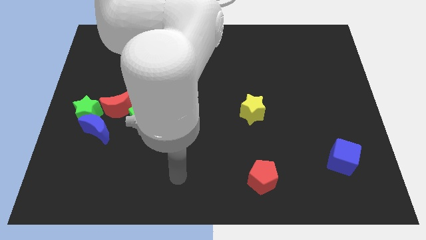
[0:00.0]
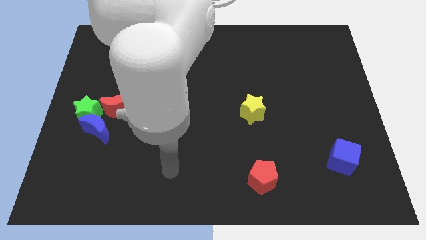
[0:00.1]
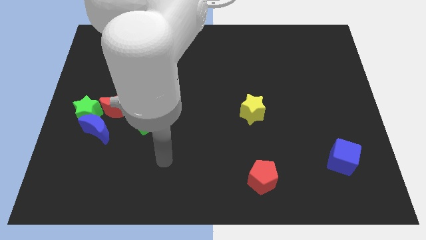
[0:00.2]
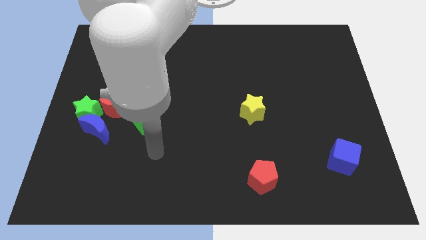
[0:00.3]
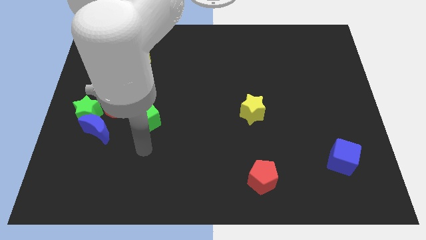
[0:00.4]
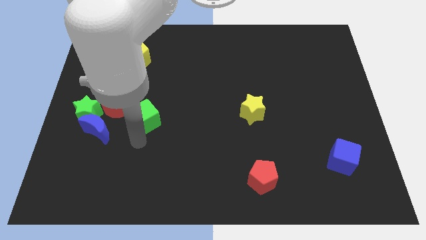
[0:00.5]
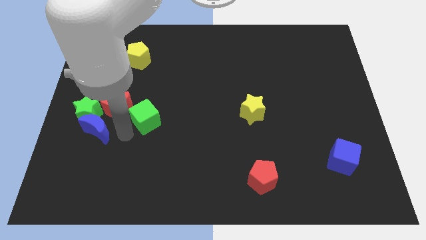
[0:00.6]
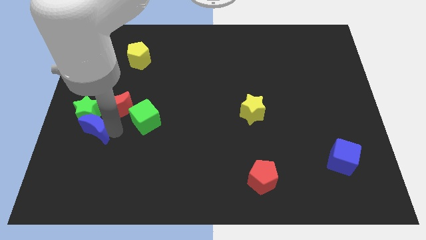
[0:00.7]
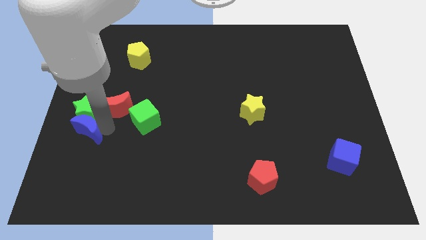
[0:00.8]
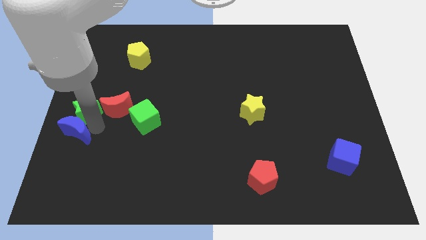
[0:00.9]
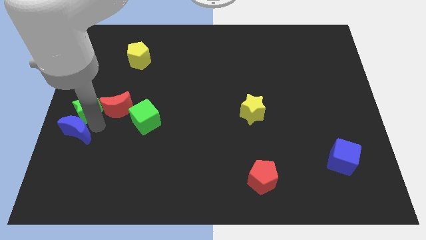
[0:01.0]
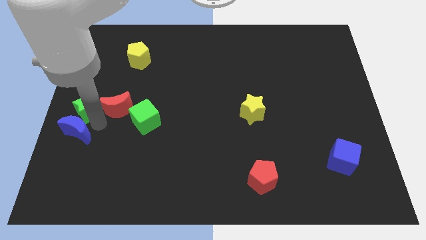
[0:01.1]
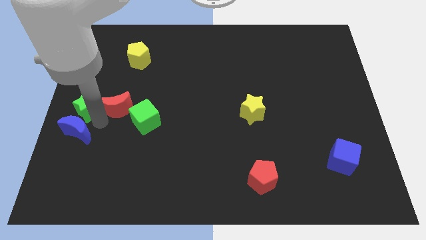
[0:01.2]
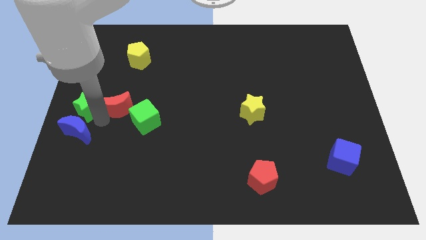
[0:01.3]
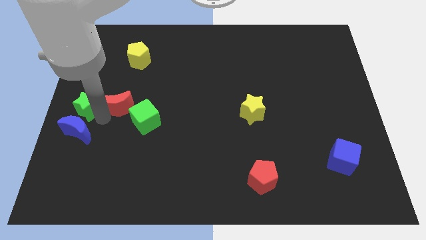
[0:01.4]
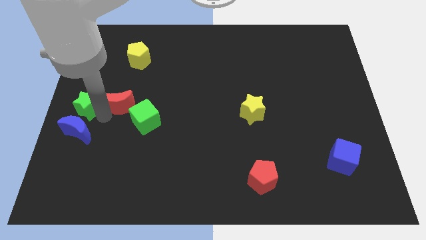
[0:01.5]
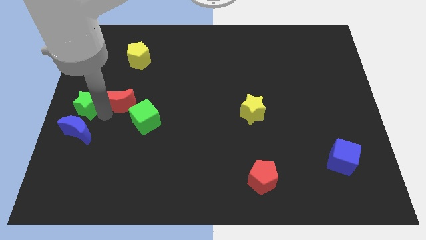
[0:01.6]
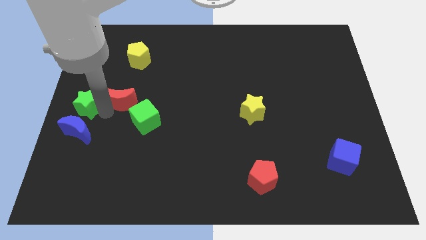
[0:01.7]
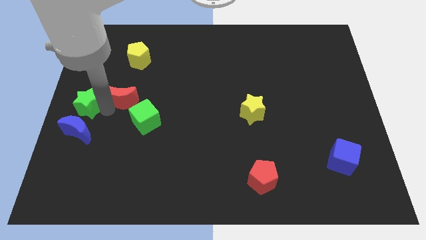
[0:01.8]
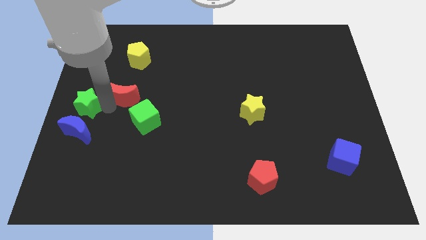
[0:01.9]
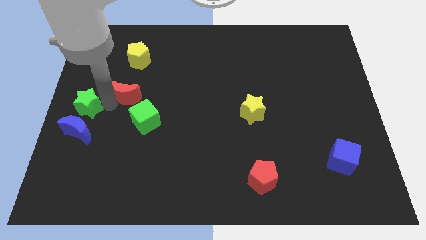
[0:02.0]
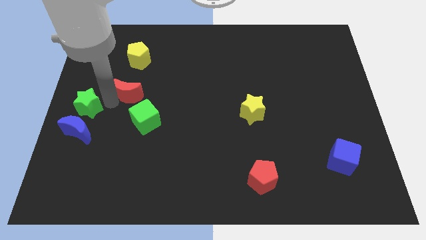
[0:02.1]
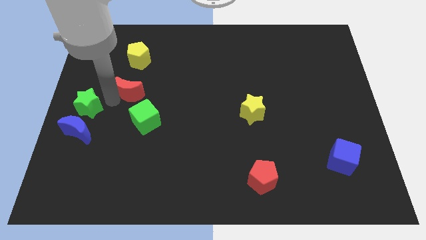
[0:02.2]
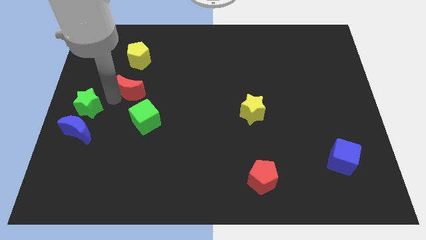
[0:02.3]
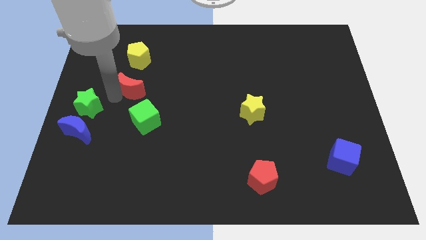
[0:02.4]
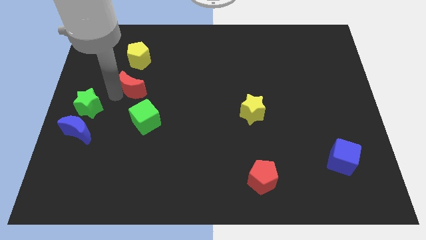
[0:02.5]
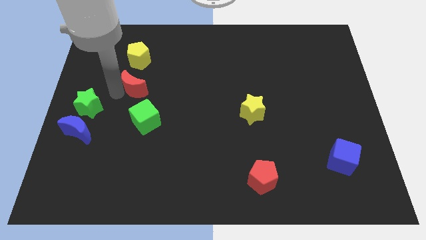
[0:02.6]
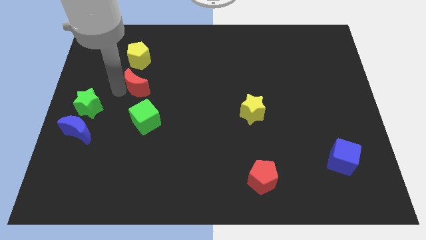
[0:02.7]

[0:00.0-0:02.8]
slide the red moon a bit upwards and right

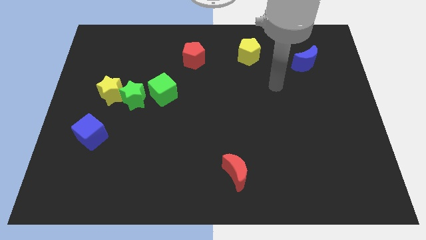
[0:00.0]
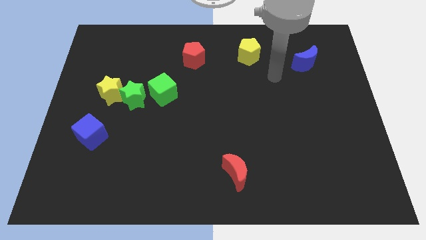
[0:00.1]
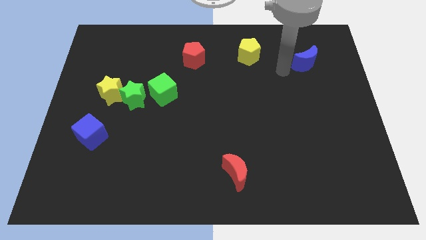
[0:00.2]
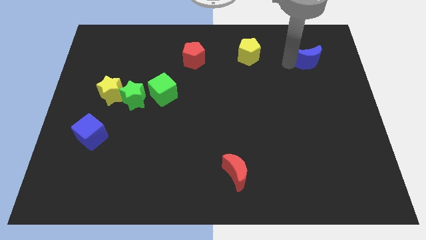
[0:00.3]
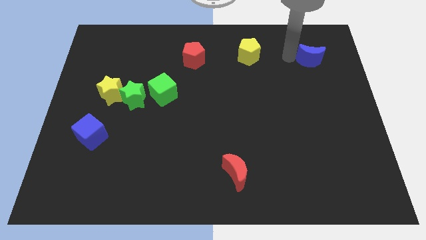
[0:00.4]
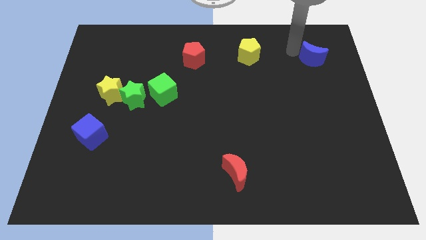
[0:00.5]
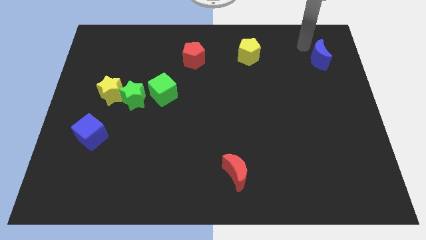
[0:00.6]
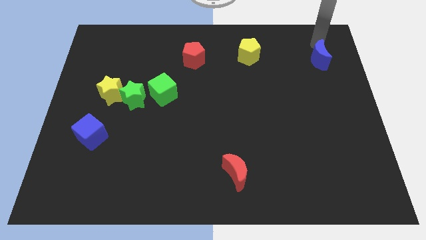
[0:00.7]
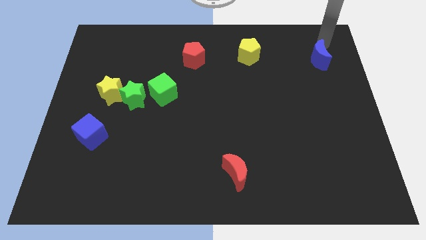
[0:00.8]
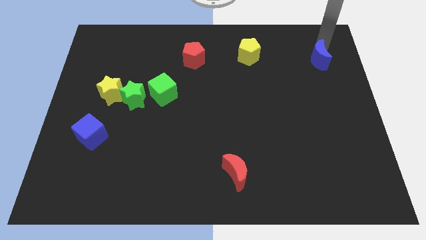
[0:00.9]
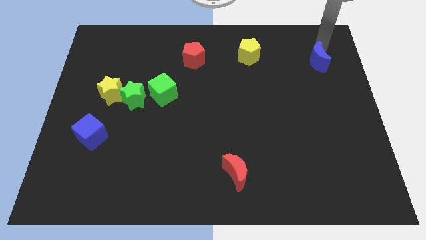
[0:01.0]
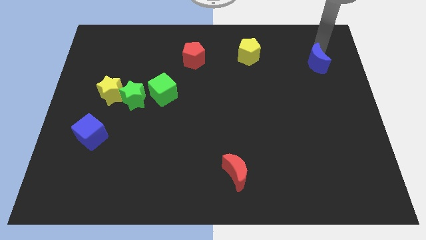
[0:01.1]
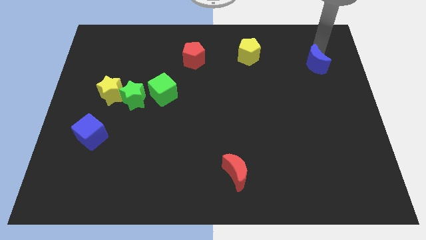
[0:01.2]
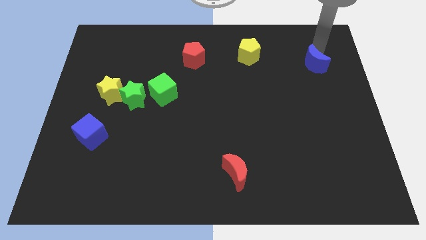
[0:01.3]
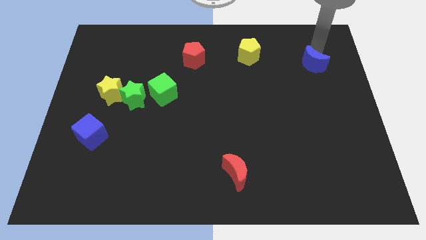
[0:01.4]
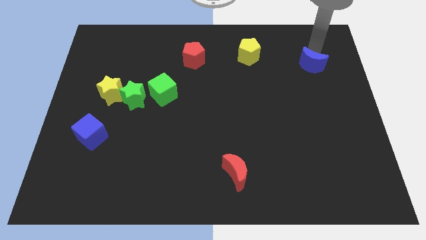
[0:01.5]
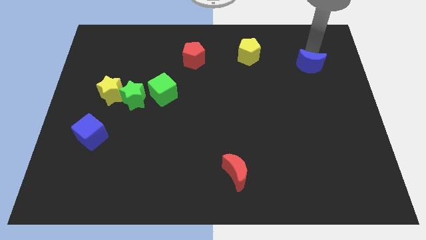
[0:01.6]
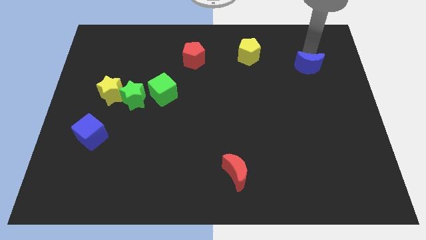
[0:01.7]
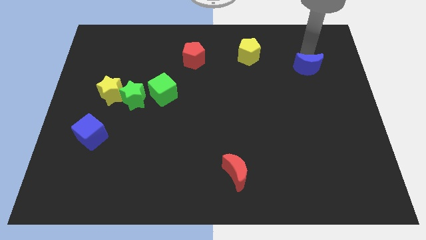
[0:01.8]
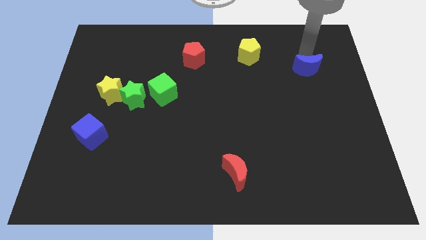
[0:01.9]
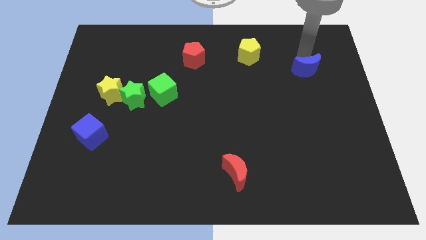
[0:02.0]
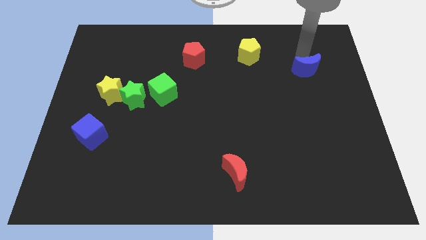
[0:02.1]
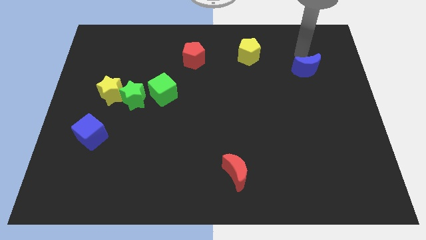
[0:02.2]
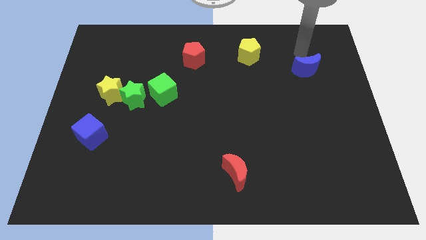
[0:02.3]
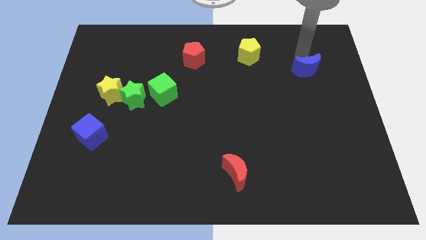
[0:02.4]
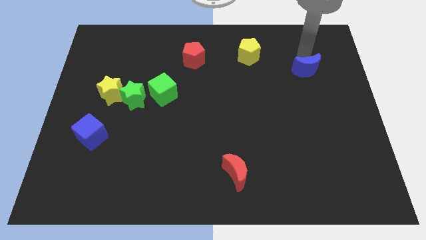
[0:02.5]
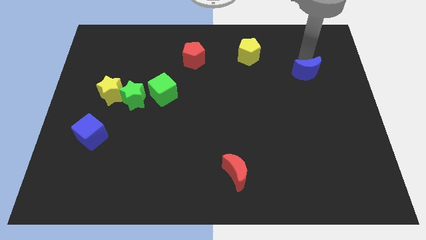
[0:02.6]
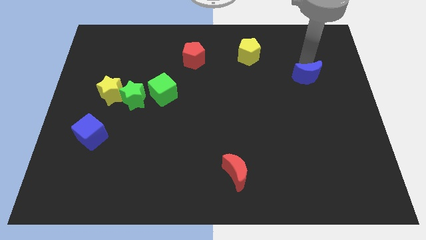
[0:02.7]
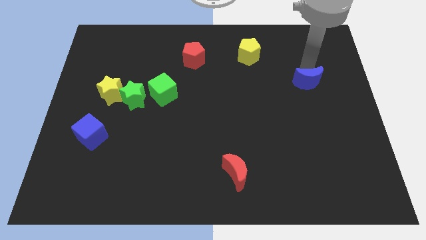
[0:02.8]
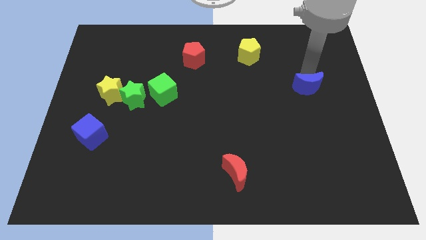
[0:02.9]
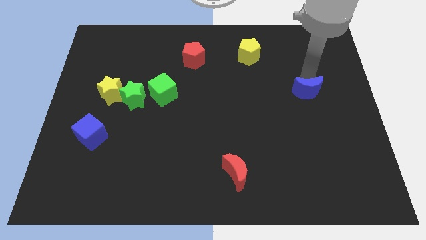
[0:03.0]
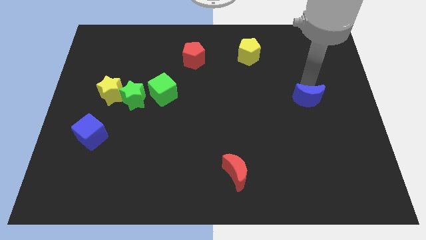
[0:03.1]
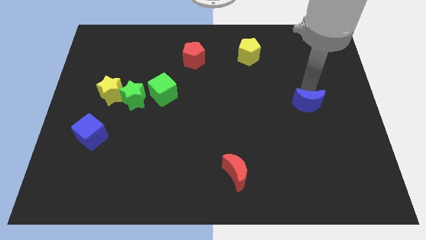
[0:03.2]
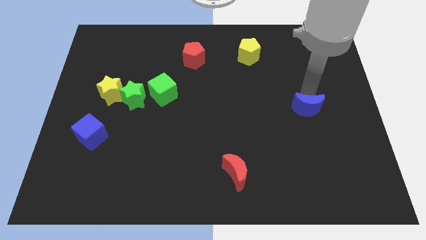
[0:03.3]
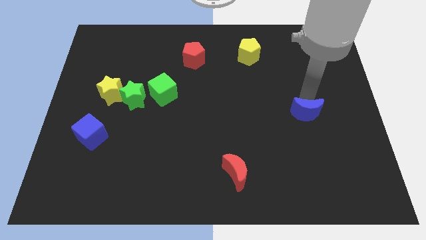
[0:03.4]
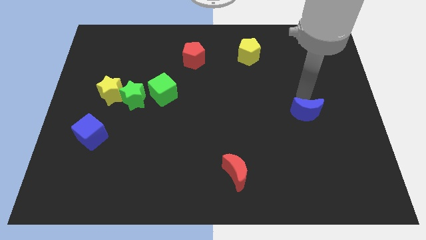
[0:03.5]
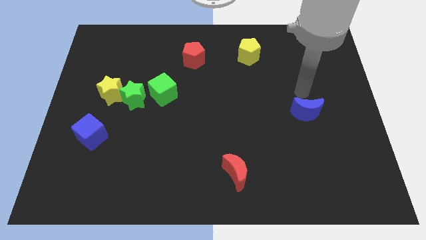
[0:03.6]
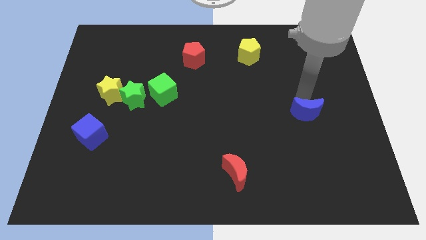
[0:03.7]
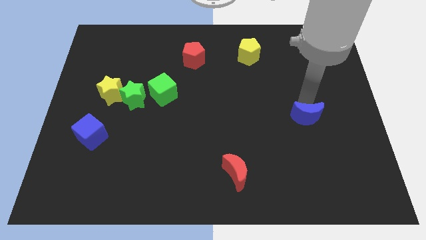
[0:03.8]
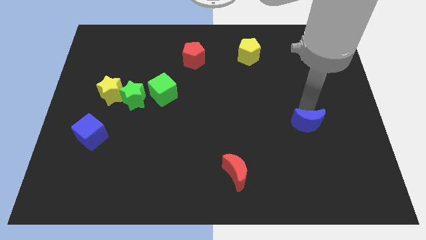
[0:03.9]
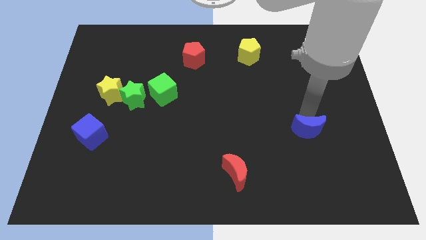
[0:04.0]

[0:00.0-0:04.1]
move the blue moon down

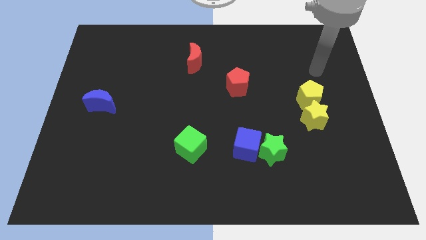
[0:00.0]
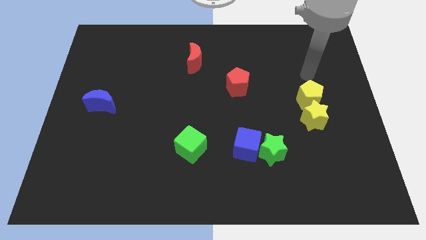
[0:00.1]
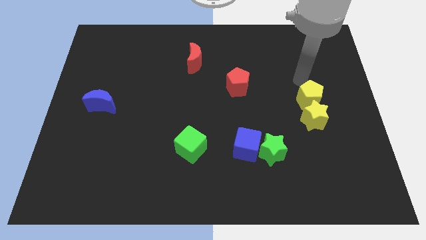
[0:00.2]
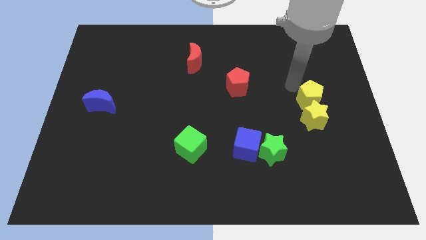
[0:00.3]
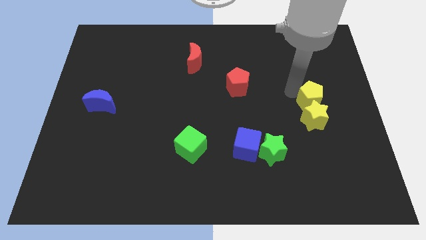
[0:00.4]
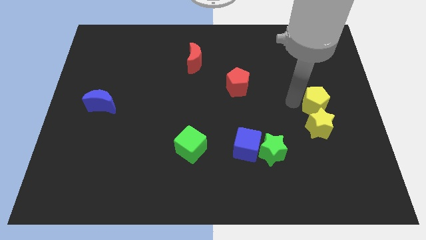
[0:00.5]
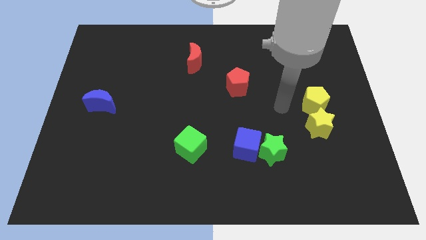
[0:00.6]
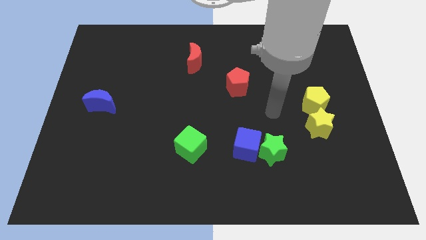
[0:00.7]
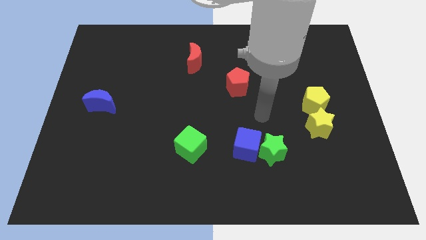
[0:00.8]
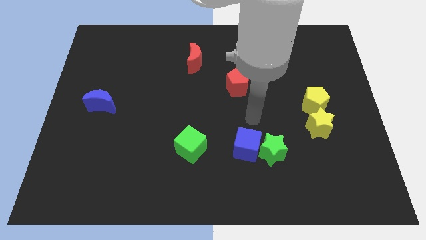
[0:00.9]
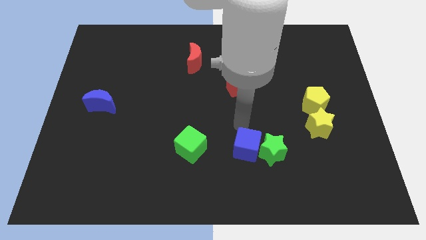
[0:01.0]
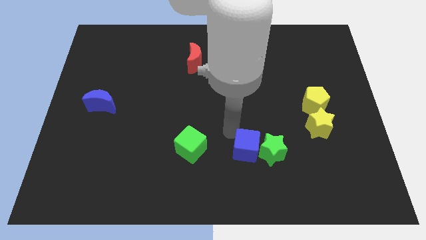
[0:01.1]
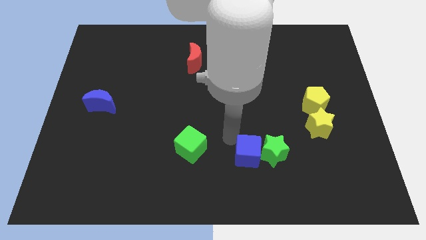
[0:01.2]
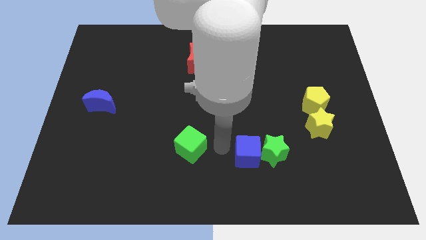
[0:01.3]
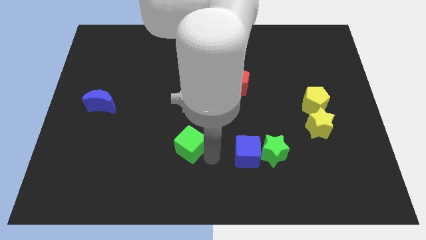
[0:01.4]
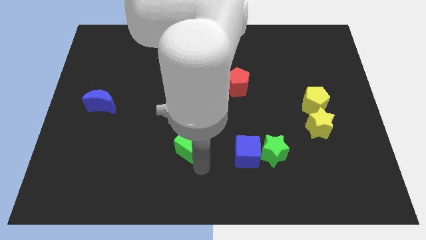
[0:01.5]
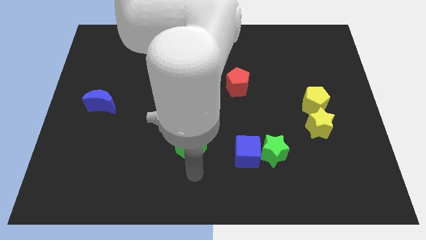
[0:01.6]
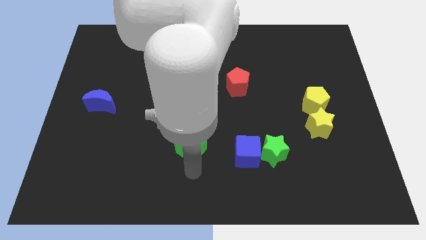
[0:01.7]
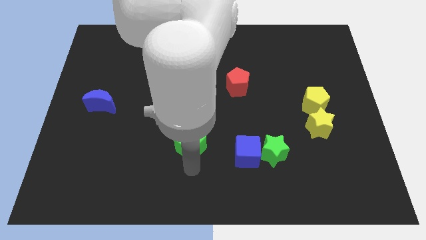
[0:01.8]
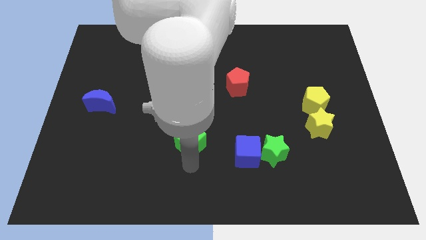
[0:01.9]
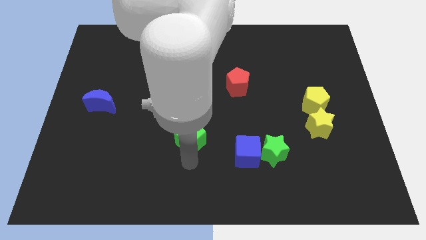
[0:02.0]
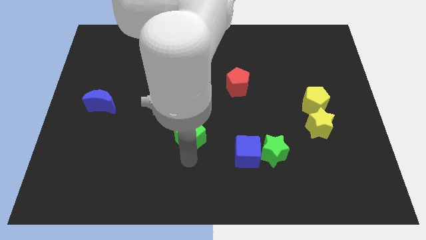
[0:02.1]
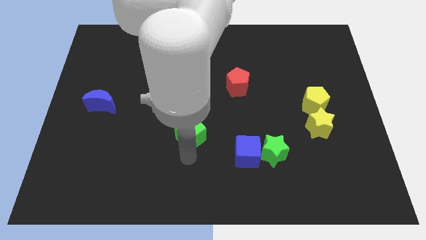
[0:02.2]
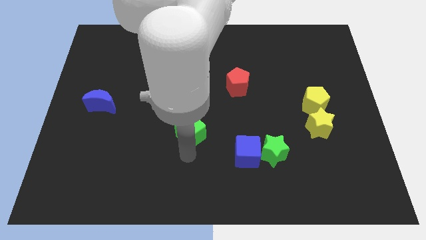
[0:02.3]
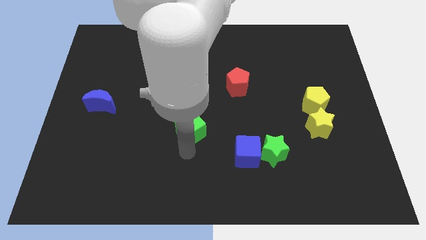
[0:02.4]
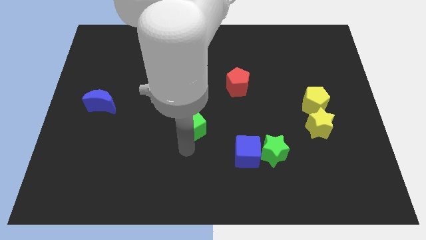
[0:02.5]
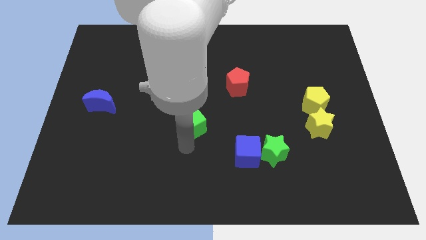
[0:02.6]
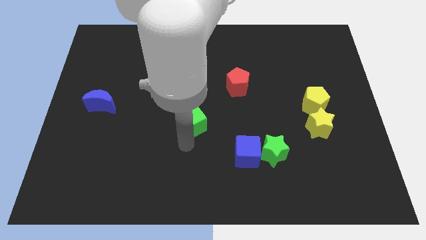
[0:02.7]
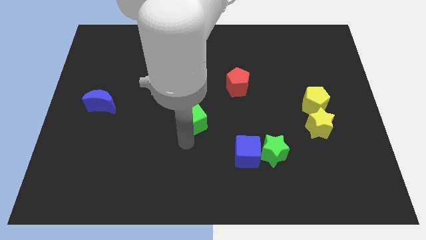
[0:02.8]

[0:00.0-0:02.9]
slightly slide the green cube up
